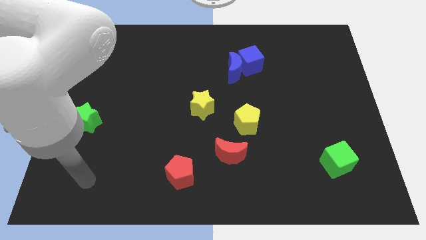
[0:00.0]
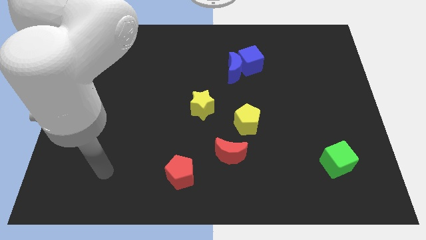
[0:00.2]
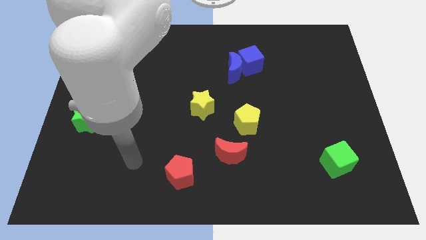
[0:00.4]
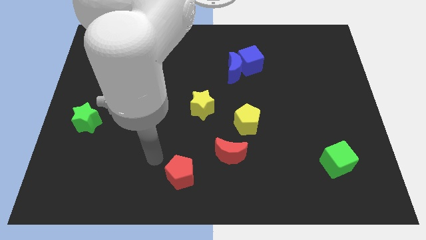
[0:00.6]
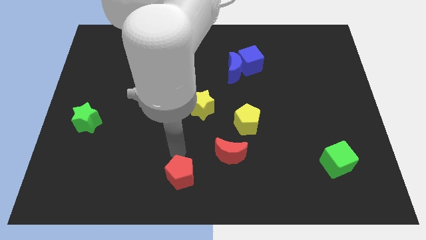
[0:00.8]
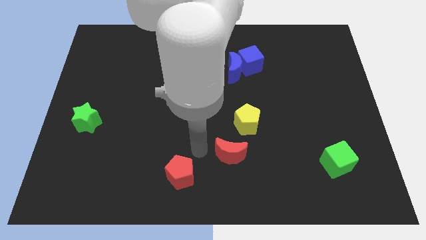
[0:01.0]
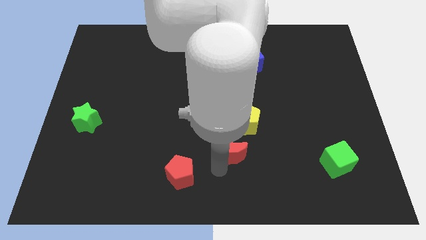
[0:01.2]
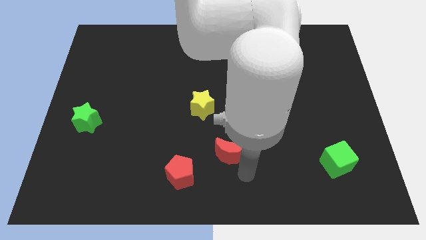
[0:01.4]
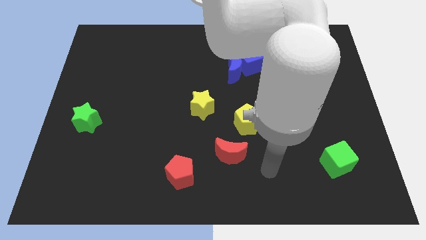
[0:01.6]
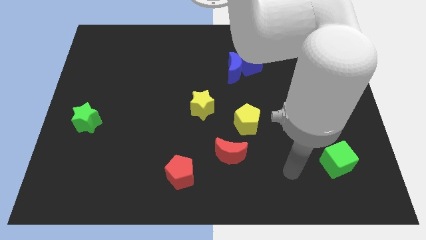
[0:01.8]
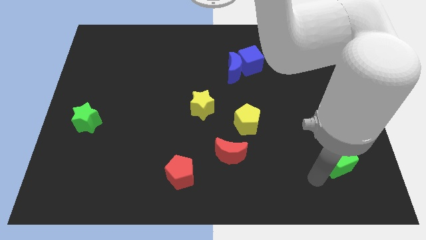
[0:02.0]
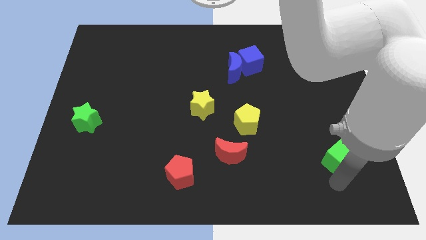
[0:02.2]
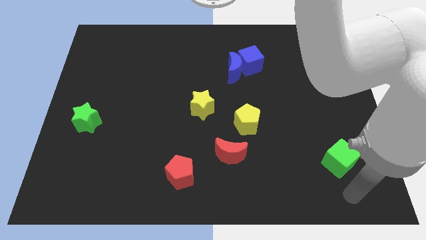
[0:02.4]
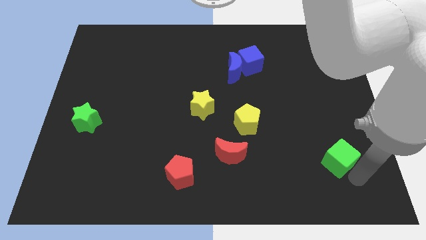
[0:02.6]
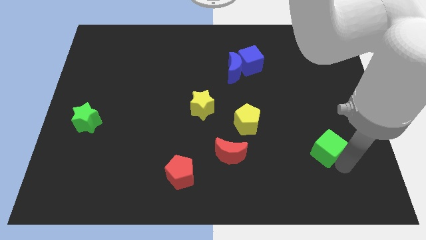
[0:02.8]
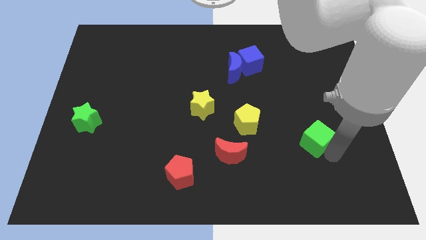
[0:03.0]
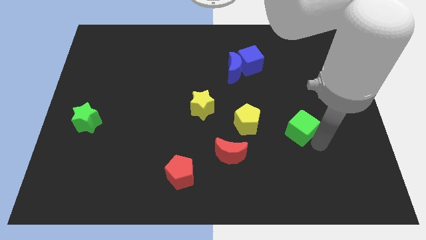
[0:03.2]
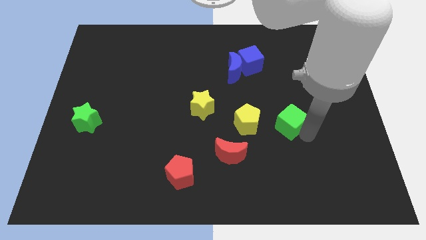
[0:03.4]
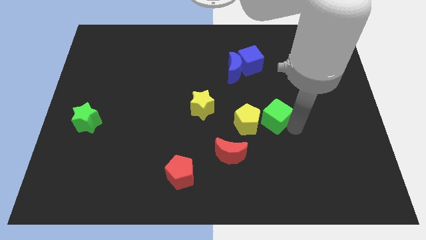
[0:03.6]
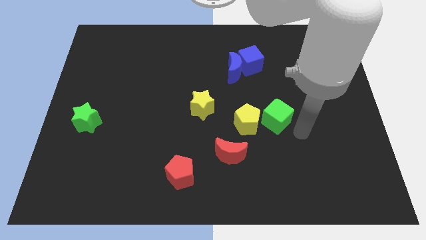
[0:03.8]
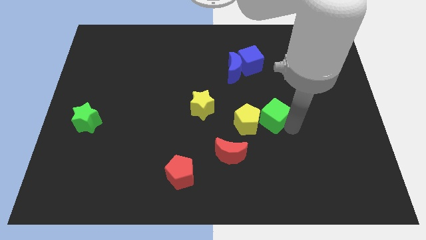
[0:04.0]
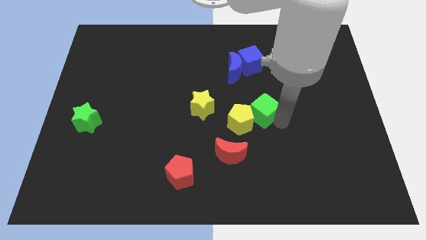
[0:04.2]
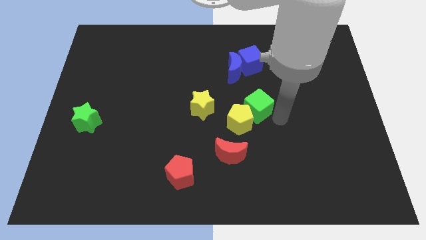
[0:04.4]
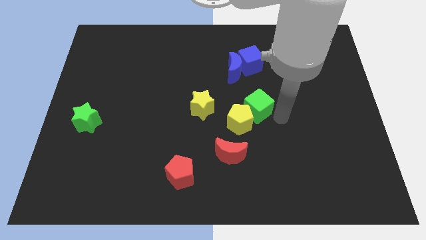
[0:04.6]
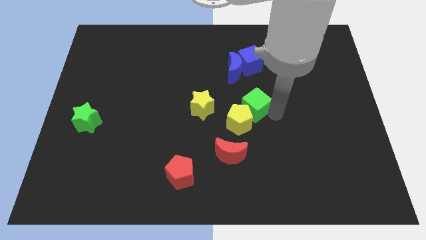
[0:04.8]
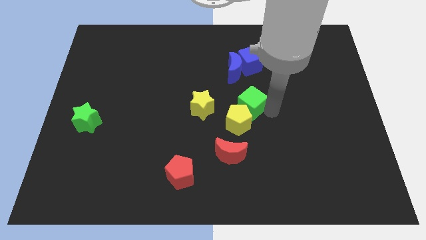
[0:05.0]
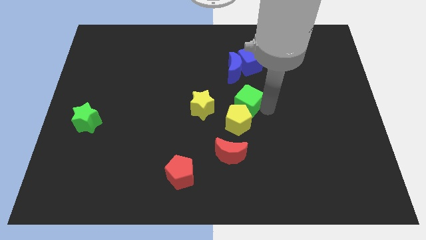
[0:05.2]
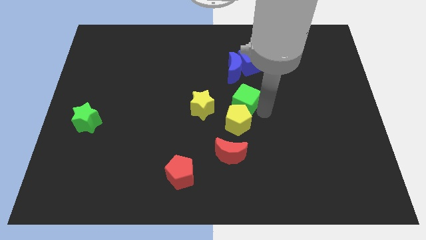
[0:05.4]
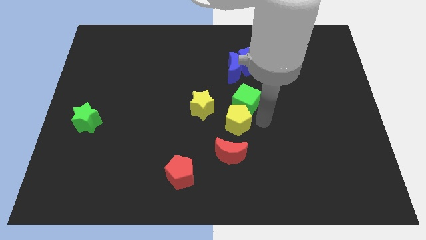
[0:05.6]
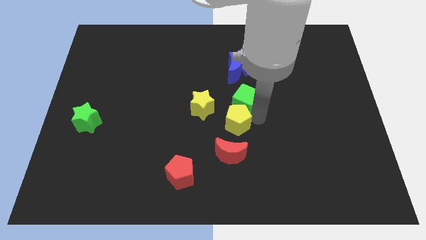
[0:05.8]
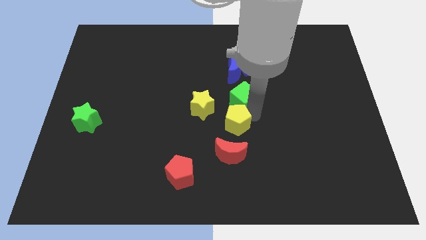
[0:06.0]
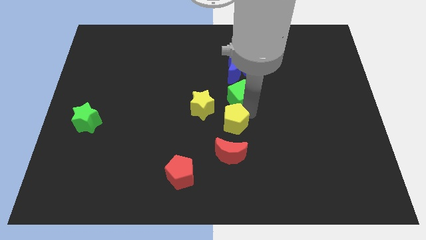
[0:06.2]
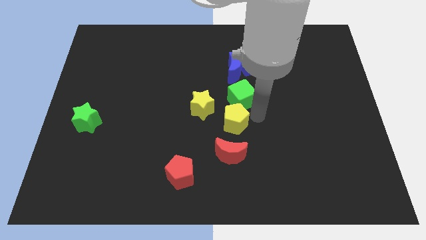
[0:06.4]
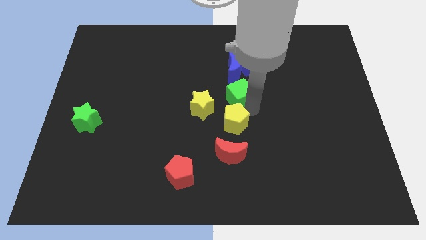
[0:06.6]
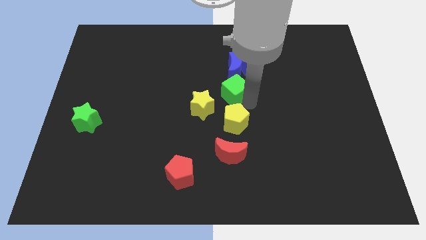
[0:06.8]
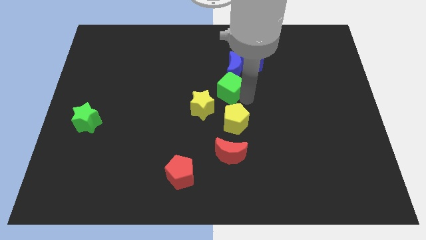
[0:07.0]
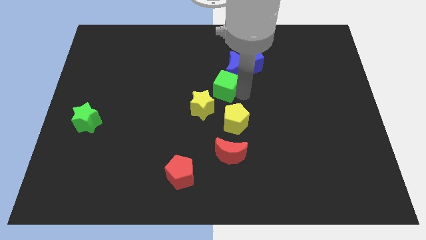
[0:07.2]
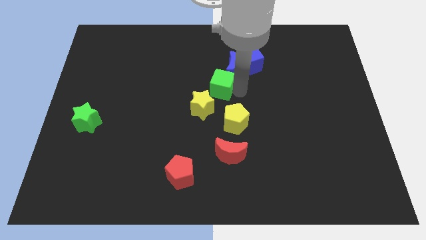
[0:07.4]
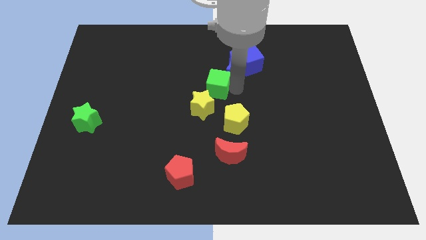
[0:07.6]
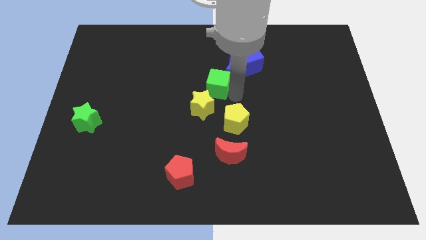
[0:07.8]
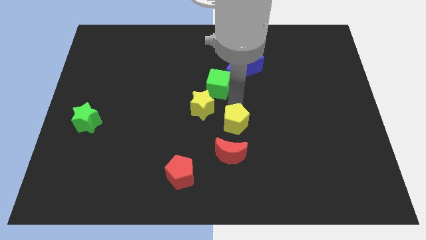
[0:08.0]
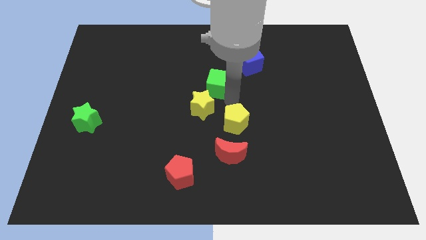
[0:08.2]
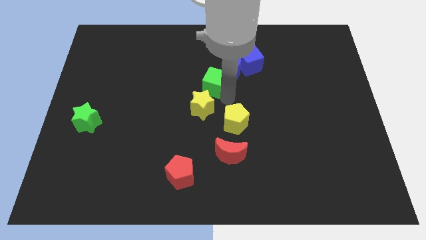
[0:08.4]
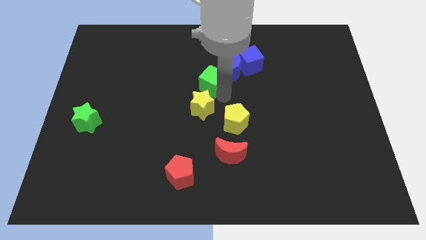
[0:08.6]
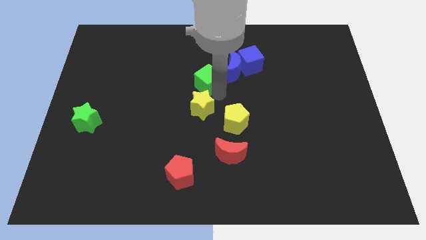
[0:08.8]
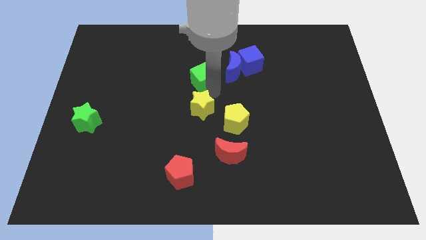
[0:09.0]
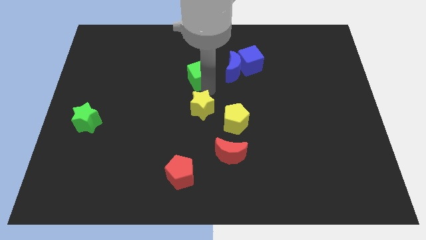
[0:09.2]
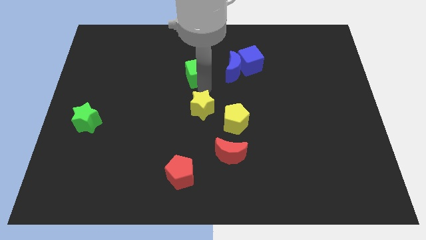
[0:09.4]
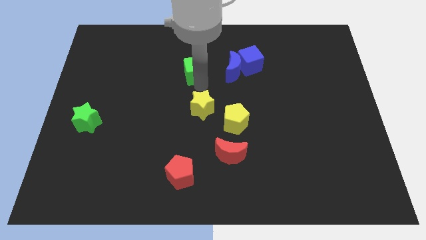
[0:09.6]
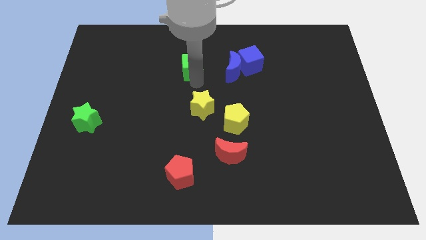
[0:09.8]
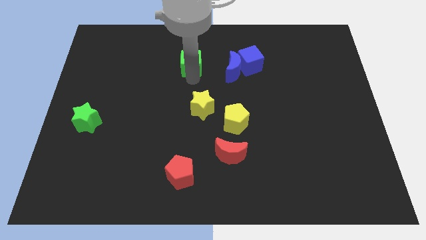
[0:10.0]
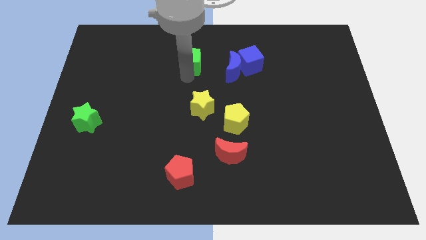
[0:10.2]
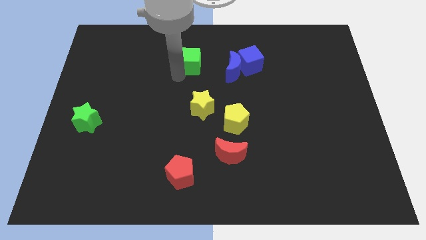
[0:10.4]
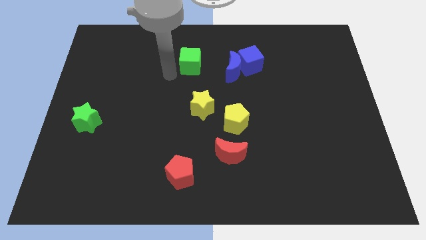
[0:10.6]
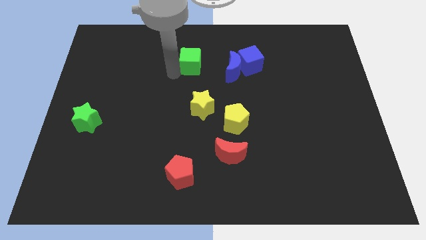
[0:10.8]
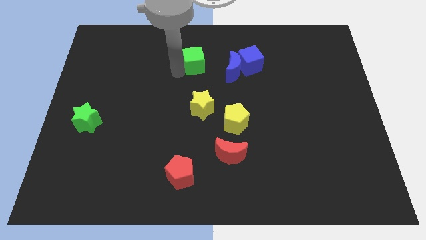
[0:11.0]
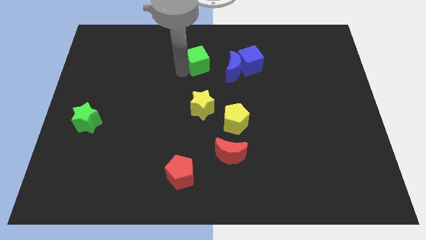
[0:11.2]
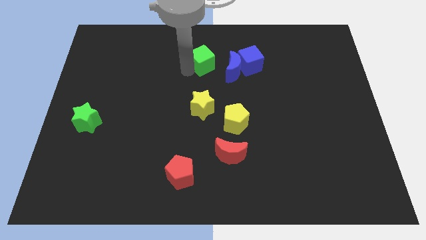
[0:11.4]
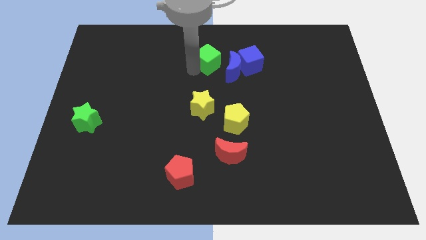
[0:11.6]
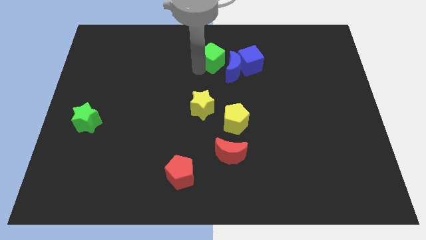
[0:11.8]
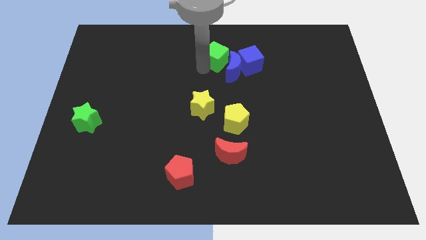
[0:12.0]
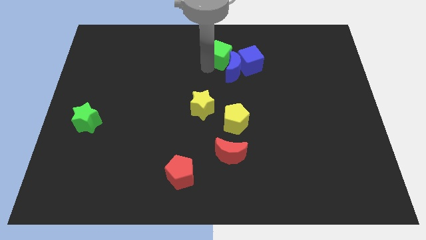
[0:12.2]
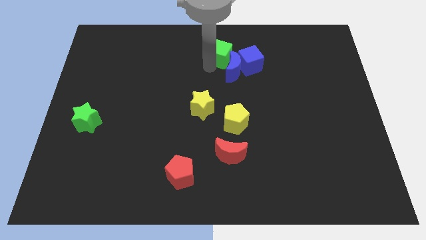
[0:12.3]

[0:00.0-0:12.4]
move the green cube to the top
